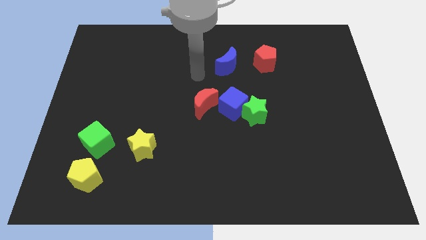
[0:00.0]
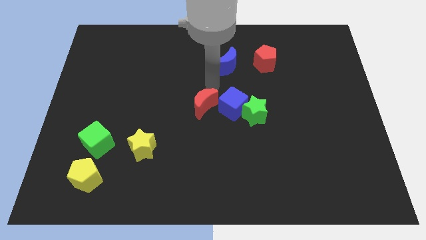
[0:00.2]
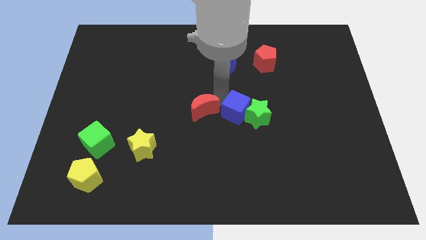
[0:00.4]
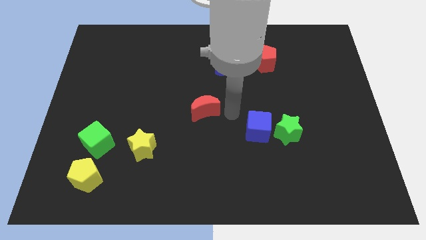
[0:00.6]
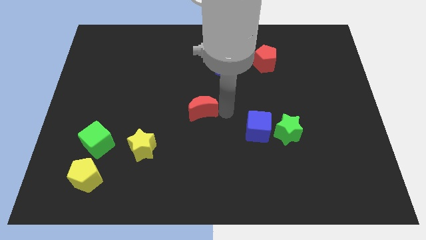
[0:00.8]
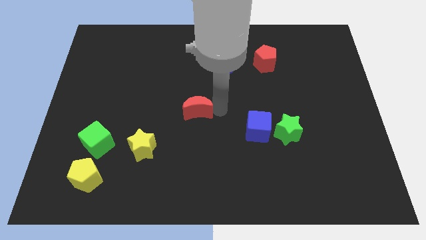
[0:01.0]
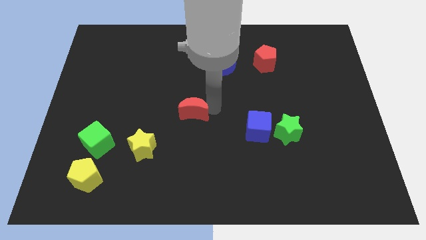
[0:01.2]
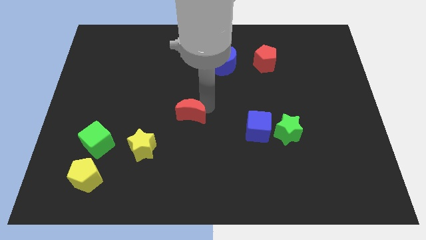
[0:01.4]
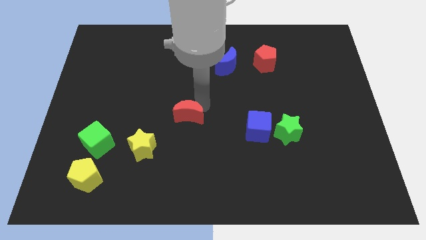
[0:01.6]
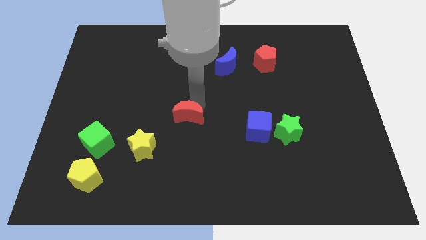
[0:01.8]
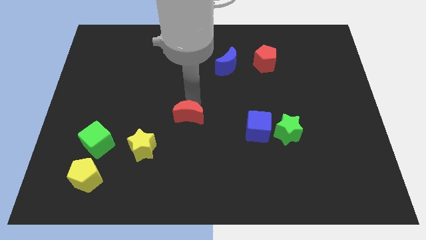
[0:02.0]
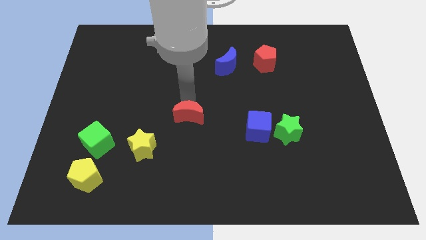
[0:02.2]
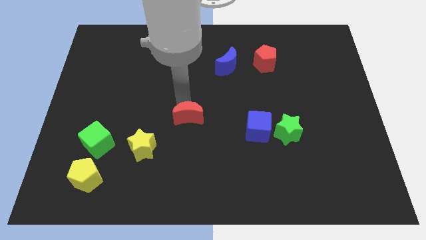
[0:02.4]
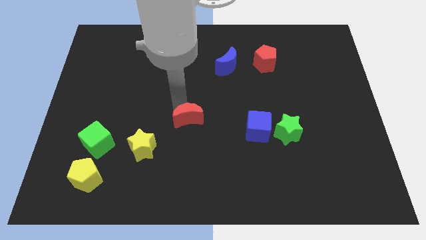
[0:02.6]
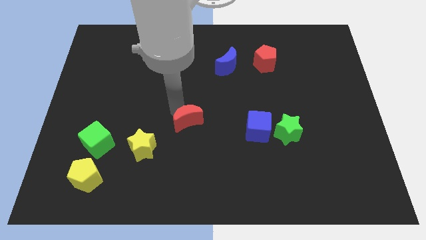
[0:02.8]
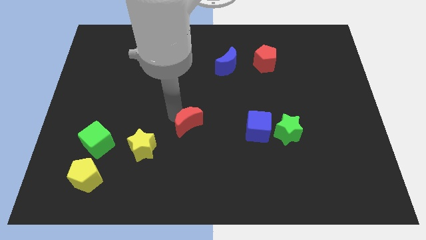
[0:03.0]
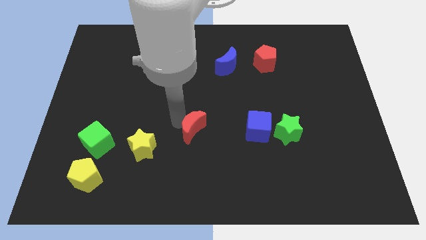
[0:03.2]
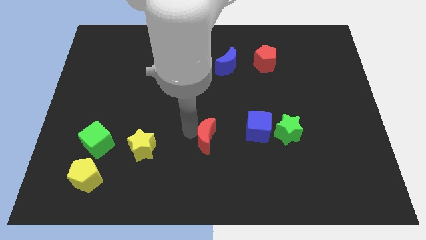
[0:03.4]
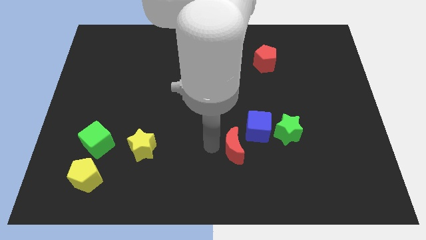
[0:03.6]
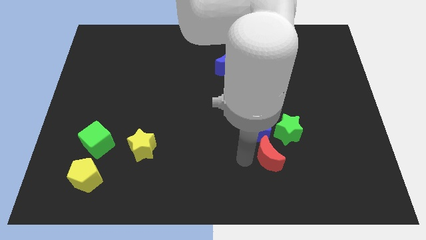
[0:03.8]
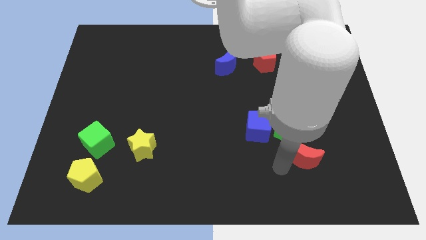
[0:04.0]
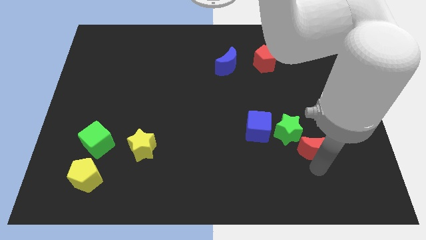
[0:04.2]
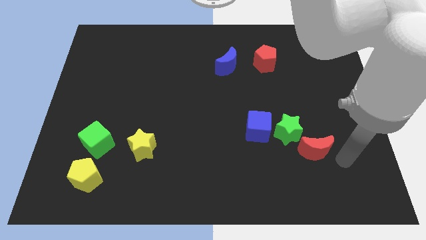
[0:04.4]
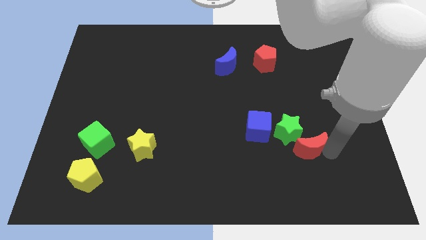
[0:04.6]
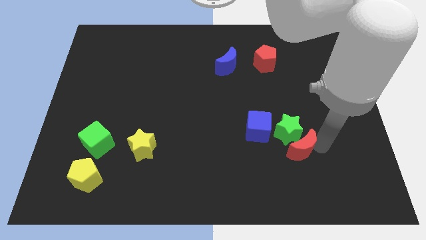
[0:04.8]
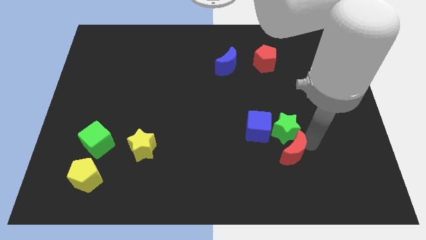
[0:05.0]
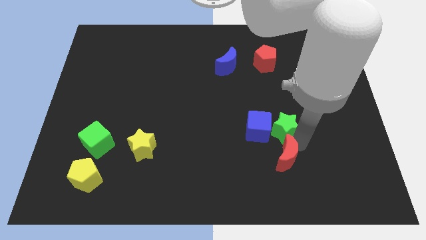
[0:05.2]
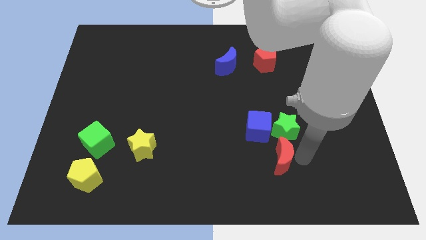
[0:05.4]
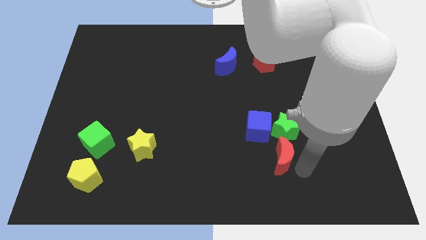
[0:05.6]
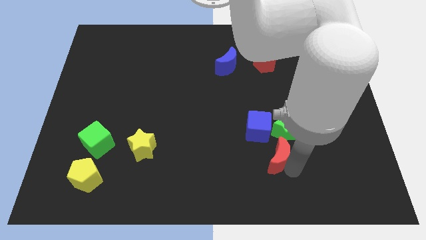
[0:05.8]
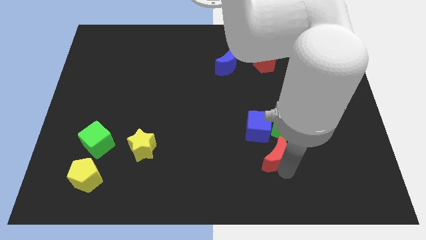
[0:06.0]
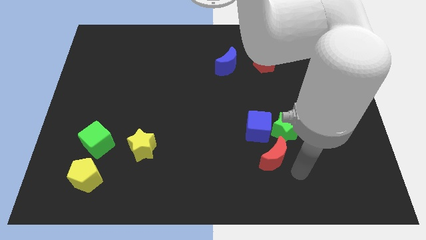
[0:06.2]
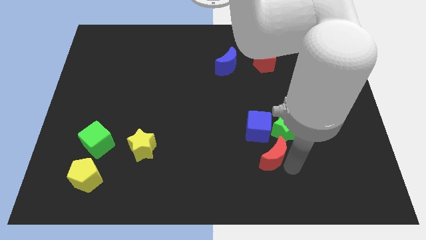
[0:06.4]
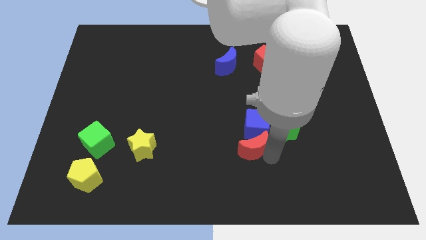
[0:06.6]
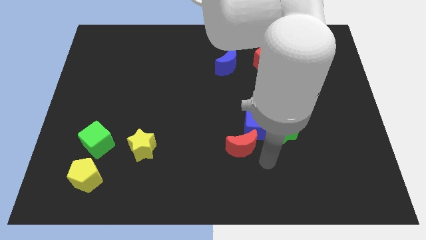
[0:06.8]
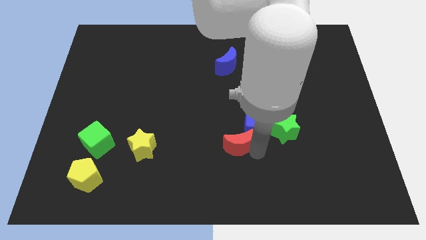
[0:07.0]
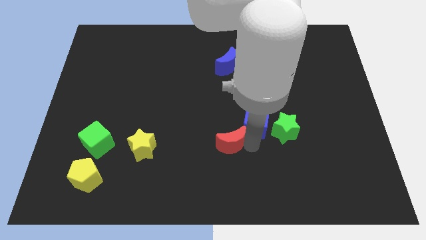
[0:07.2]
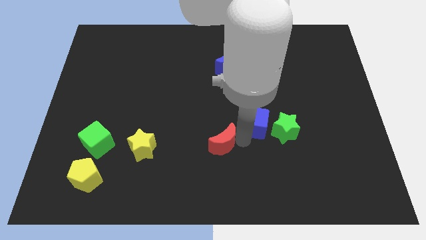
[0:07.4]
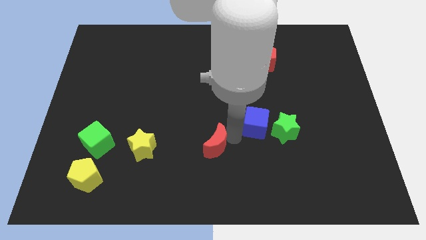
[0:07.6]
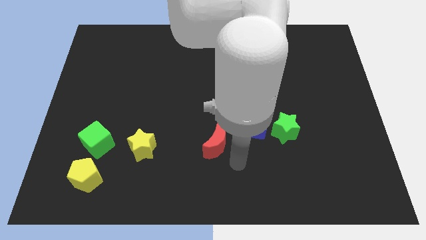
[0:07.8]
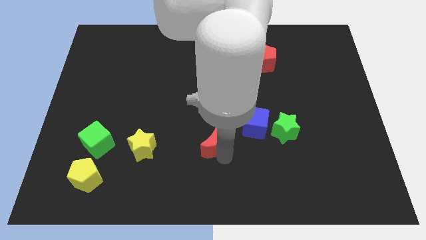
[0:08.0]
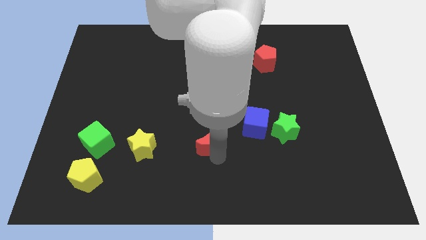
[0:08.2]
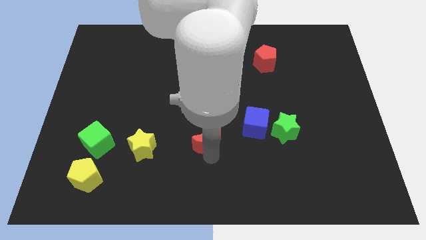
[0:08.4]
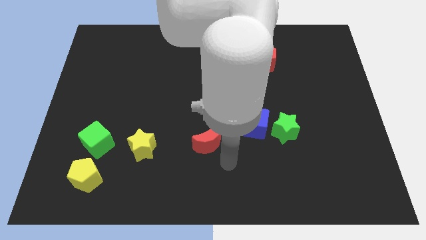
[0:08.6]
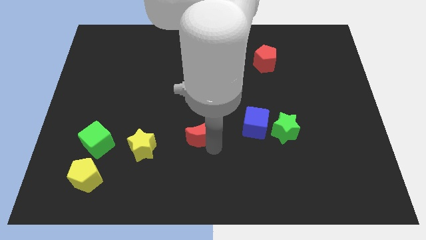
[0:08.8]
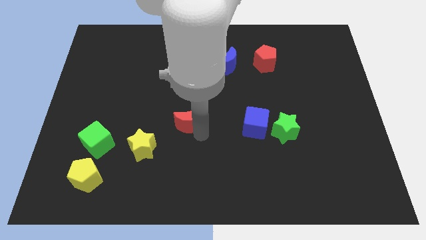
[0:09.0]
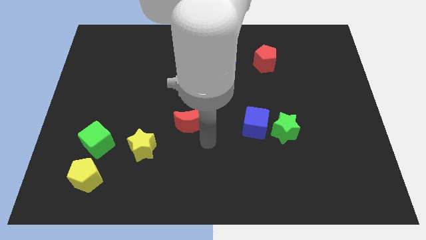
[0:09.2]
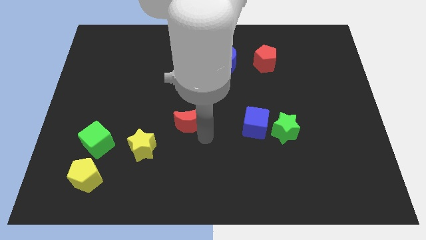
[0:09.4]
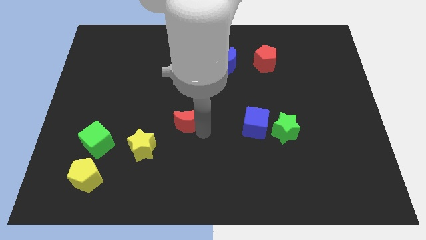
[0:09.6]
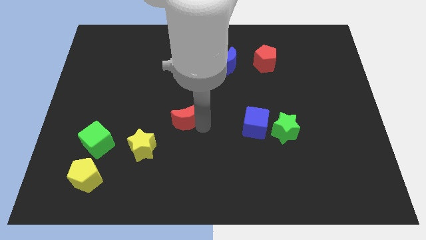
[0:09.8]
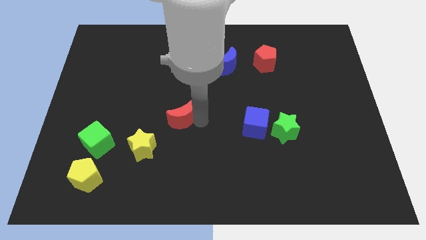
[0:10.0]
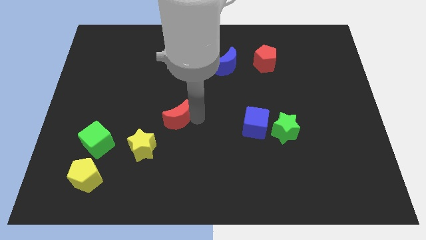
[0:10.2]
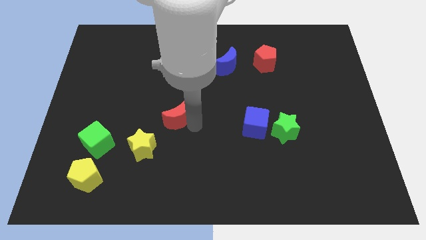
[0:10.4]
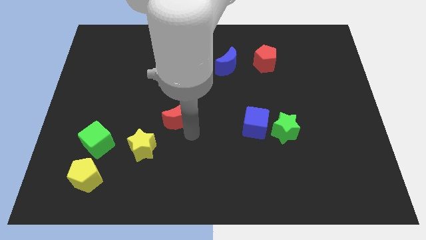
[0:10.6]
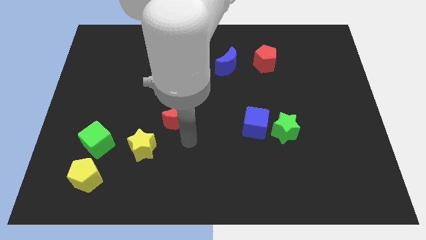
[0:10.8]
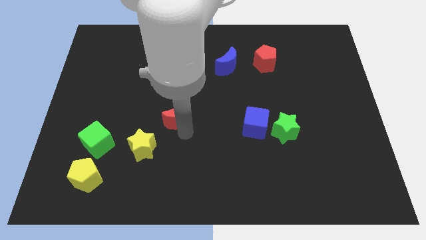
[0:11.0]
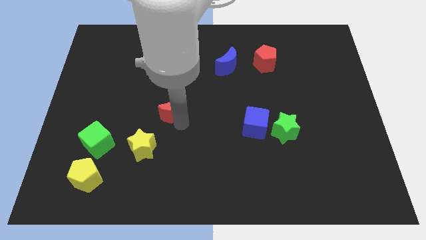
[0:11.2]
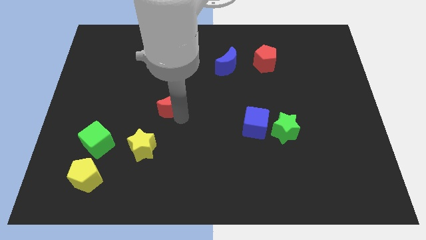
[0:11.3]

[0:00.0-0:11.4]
slightly push the red moon left

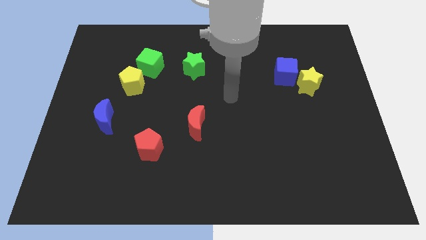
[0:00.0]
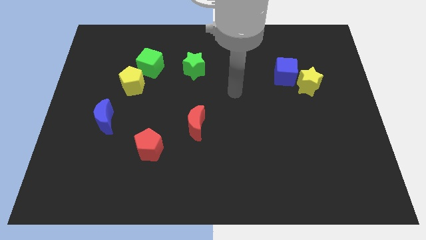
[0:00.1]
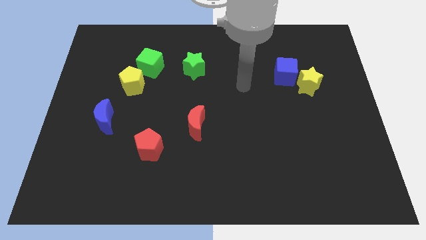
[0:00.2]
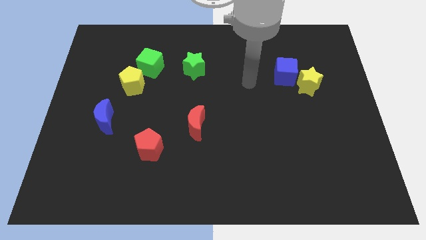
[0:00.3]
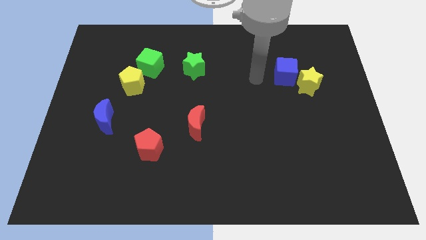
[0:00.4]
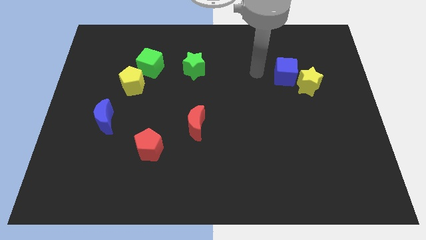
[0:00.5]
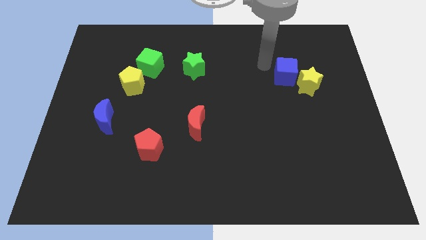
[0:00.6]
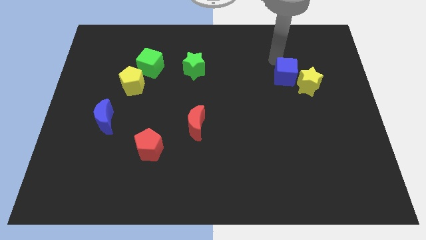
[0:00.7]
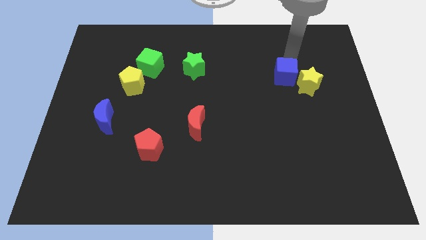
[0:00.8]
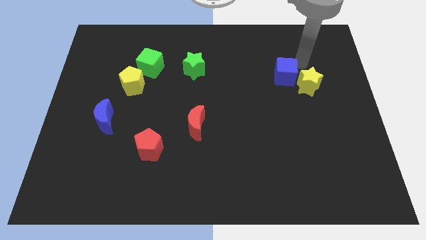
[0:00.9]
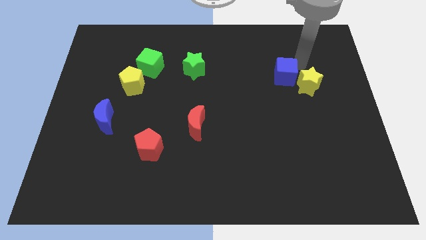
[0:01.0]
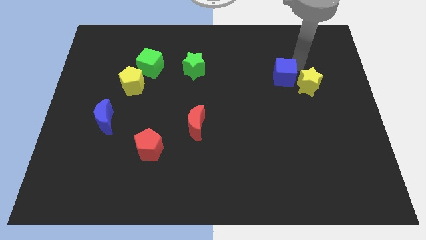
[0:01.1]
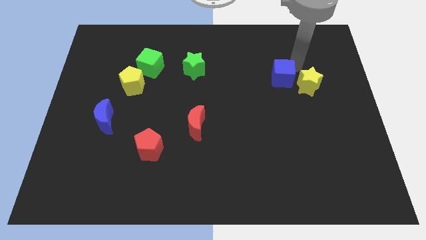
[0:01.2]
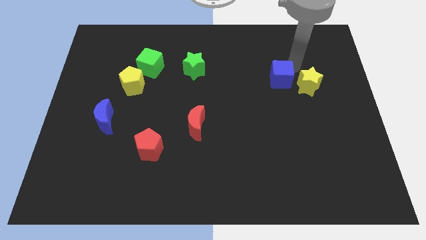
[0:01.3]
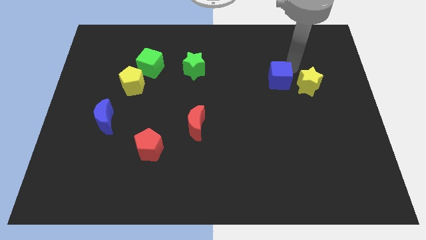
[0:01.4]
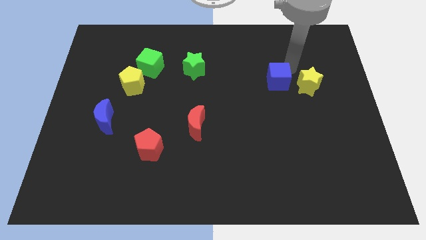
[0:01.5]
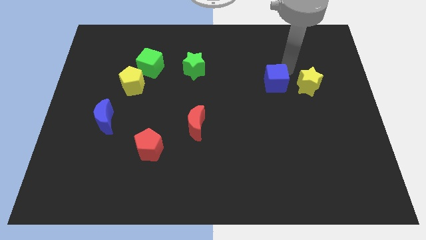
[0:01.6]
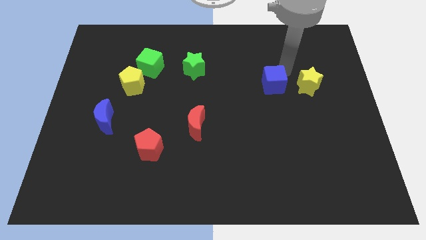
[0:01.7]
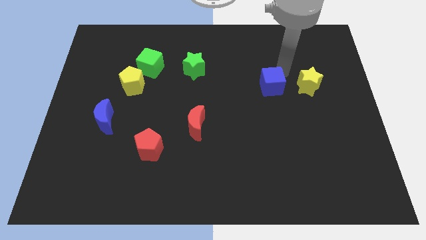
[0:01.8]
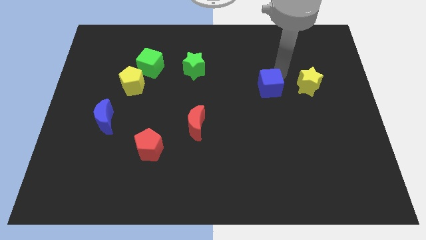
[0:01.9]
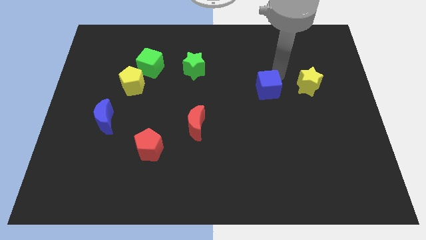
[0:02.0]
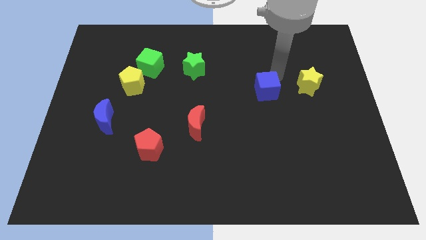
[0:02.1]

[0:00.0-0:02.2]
move the blue cube diagonally down and to the left somewhat
